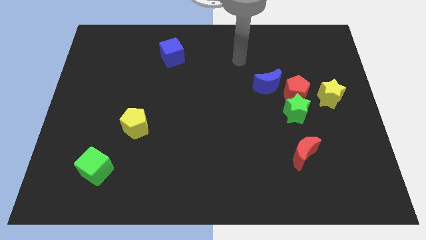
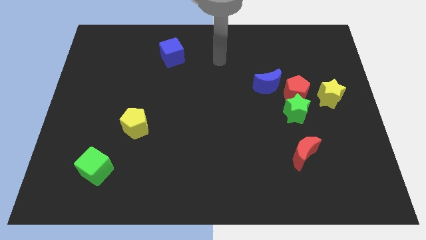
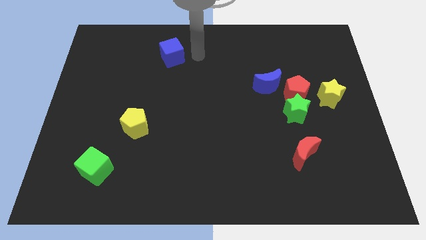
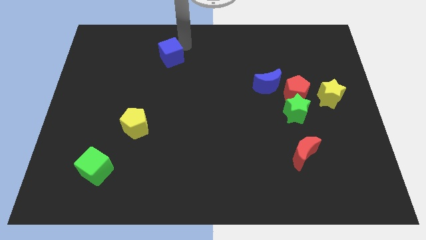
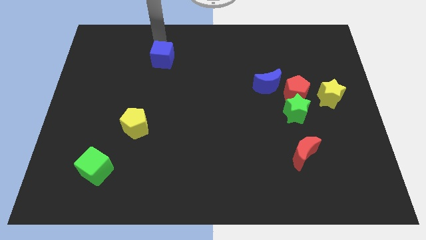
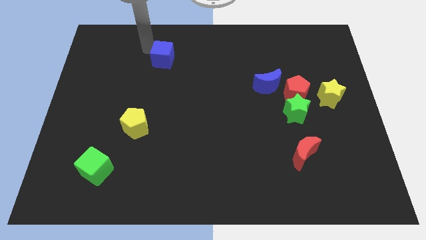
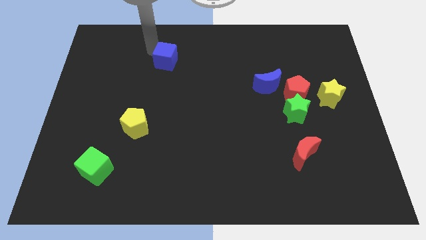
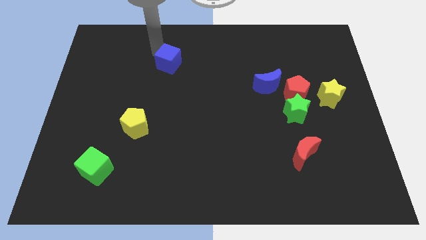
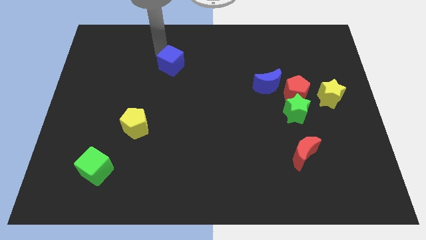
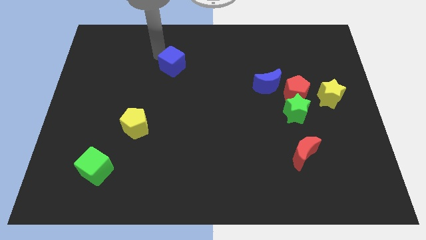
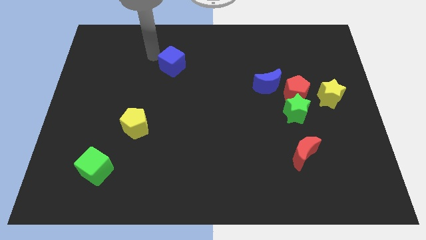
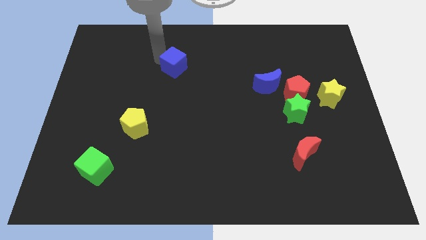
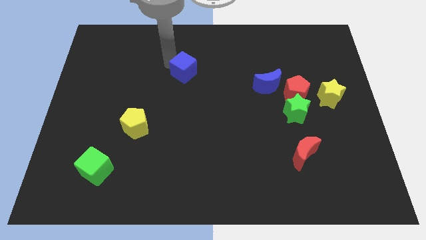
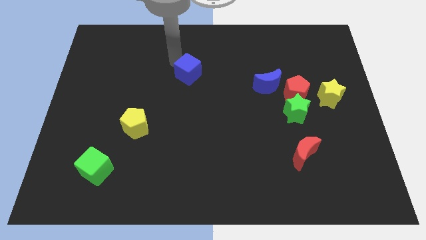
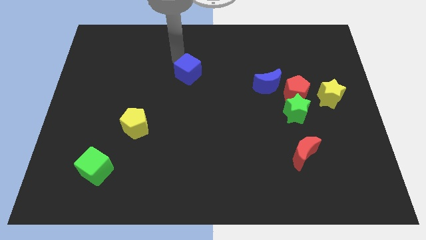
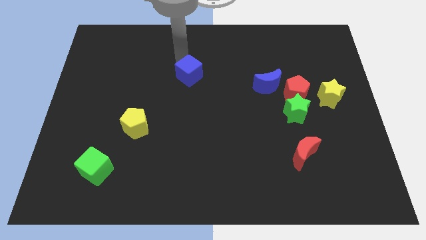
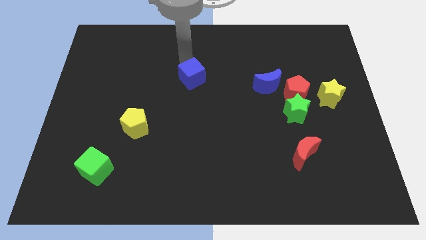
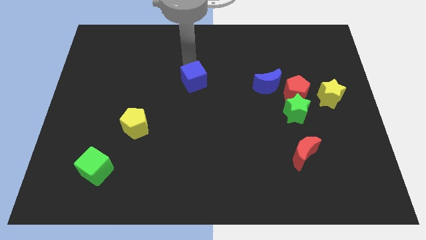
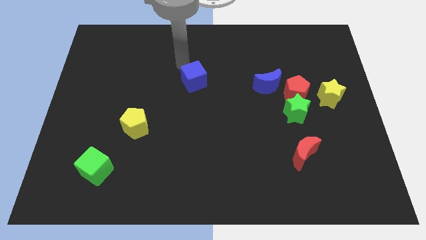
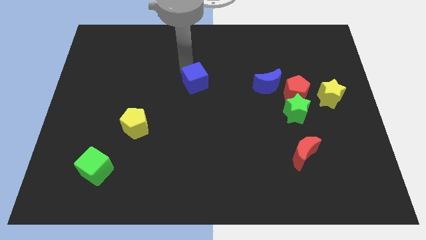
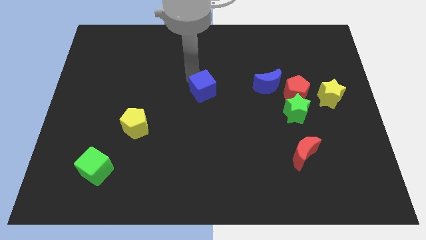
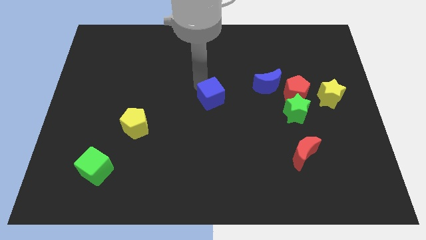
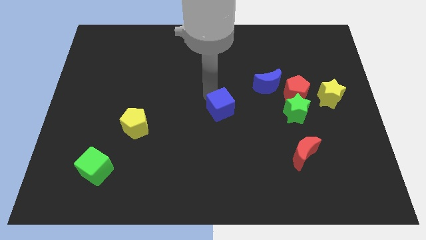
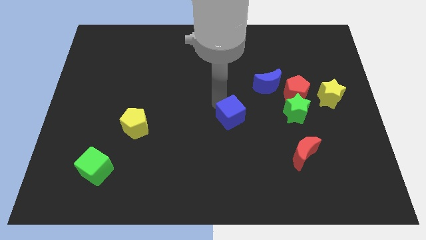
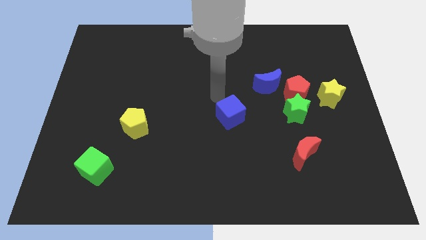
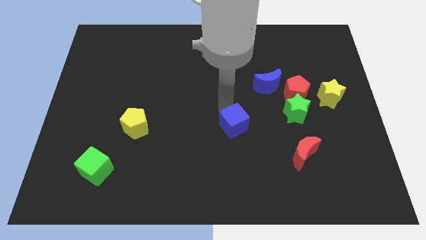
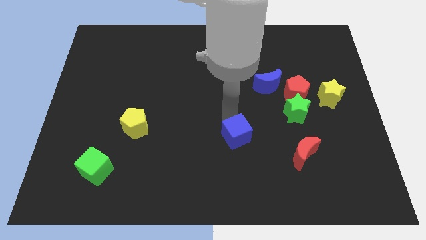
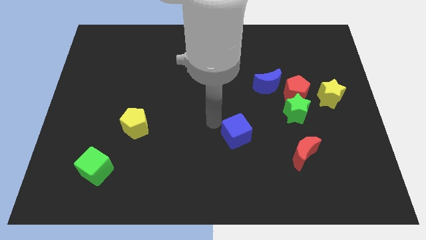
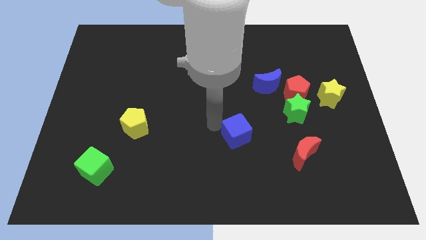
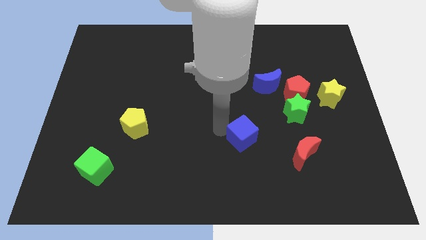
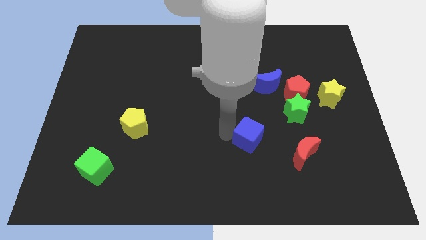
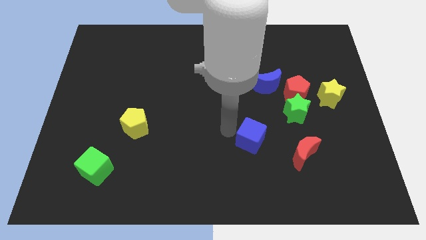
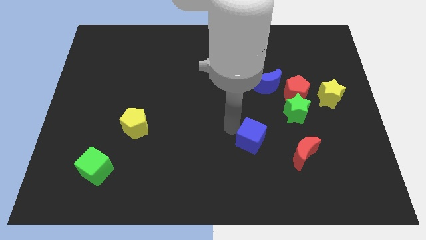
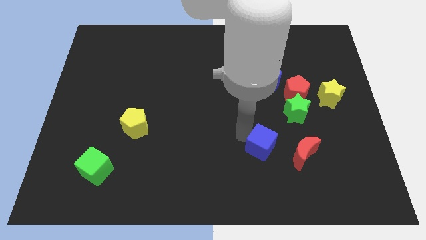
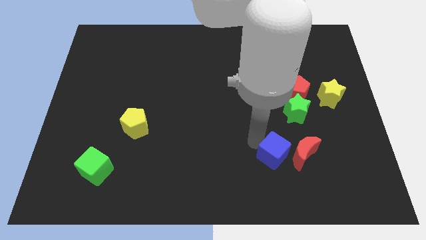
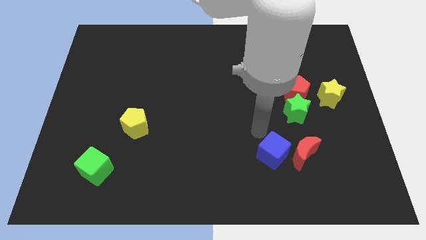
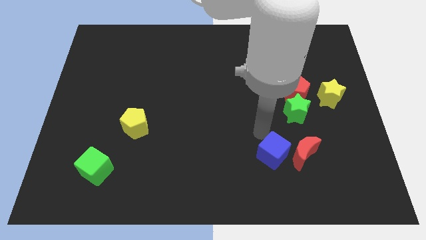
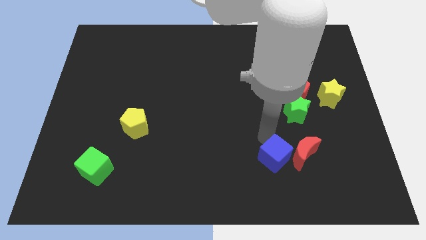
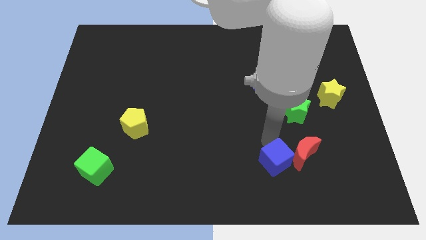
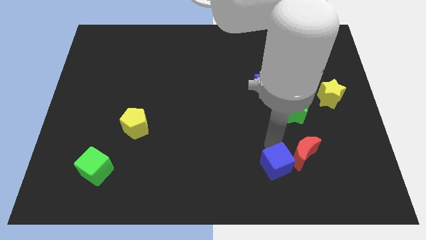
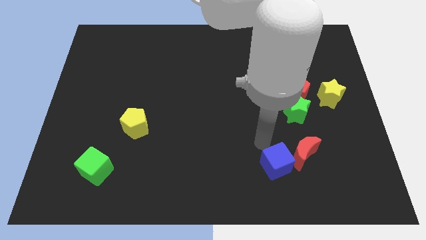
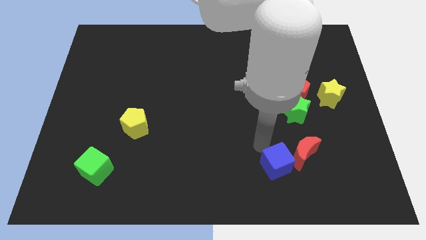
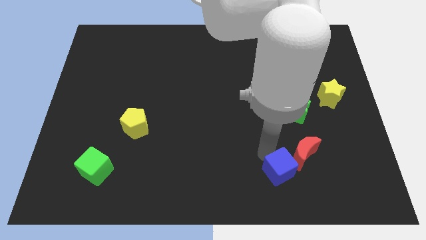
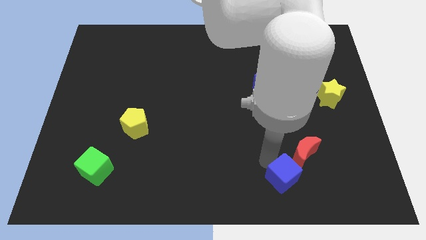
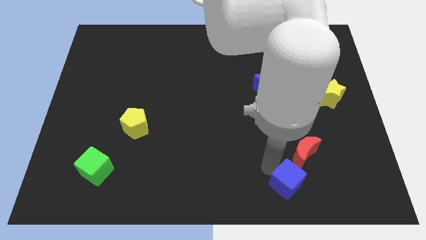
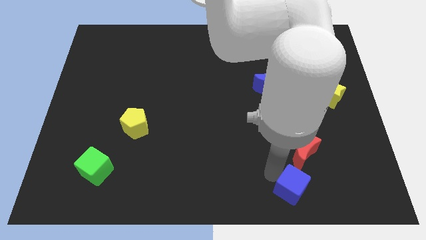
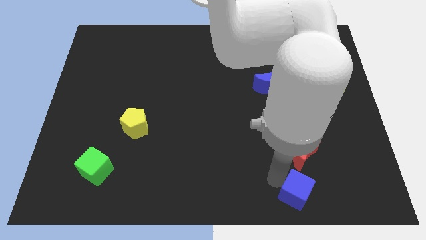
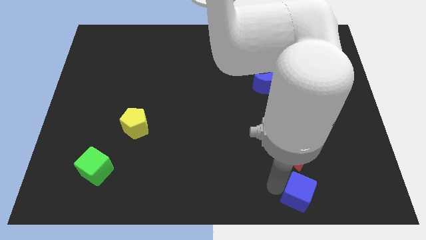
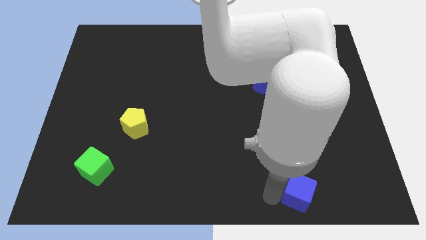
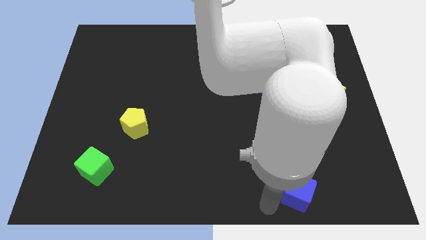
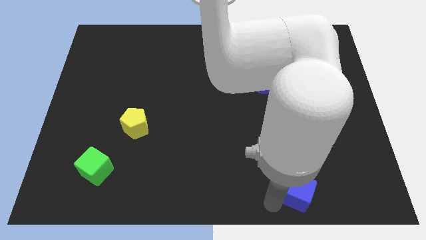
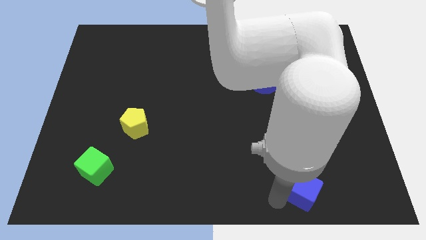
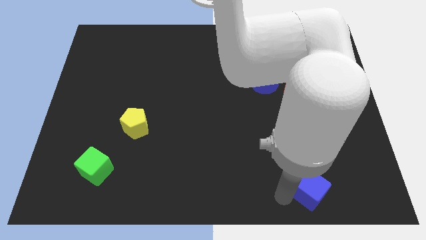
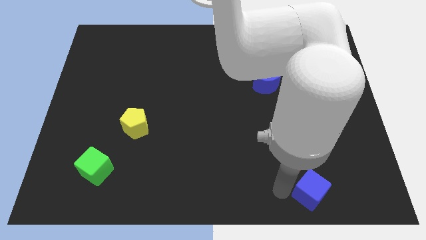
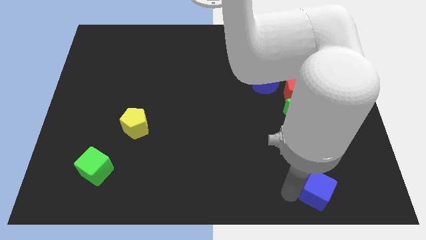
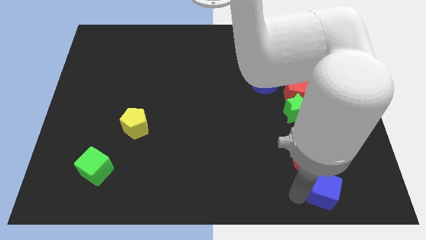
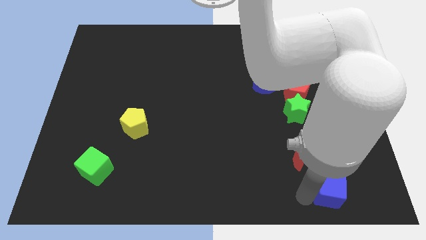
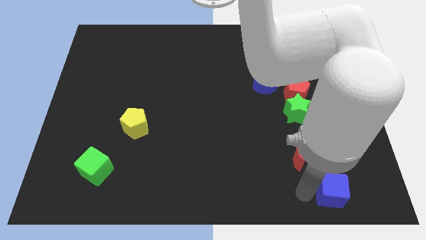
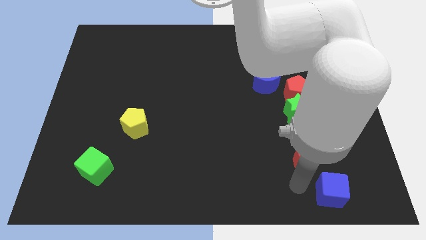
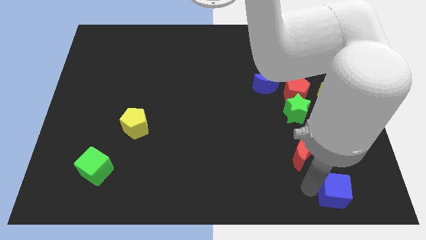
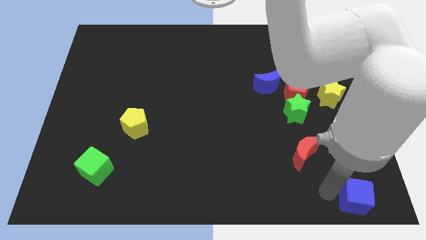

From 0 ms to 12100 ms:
put the blue cube to the bottom right of the board

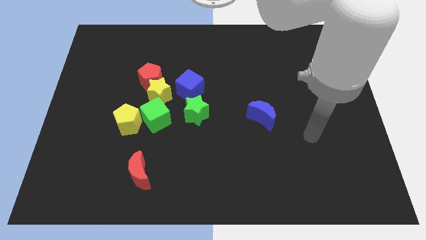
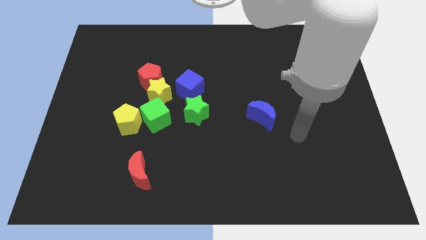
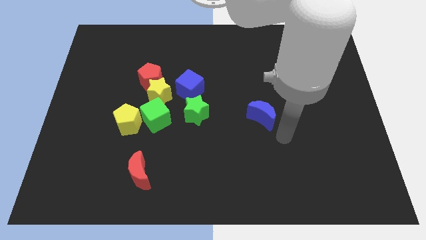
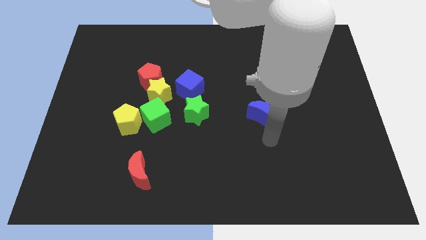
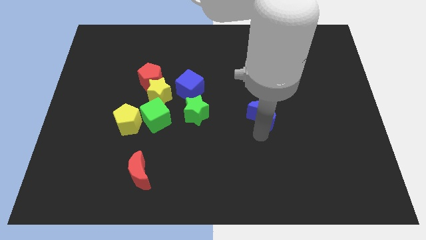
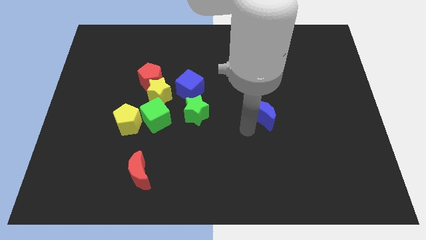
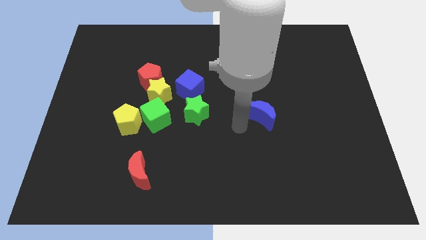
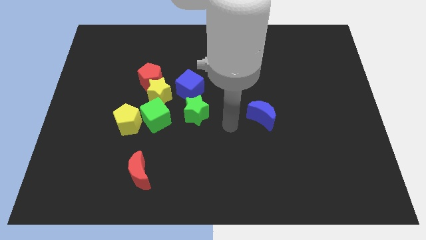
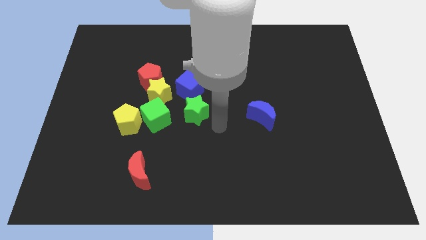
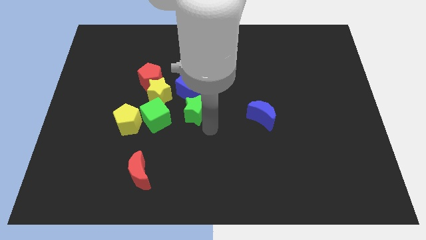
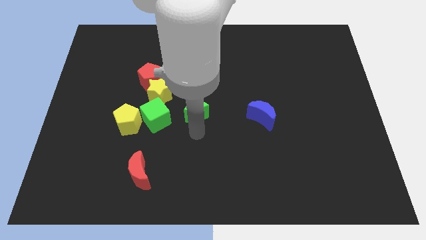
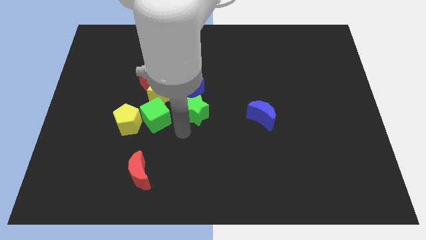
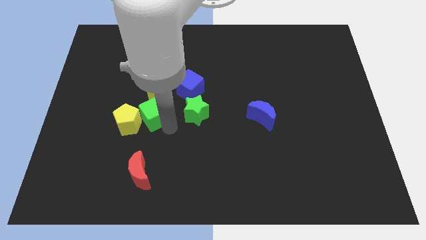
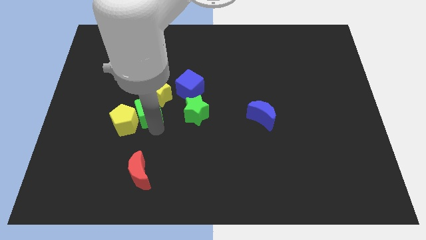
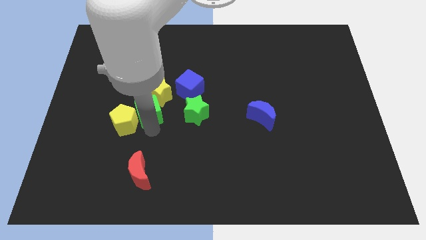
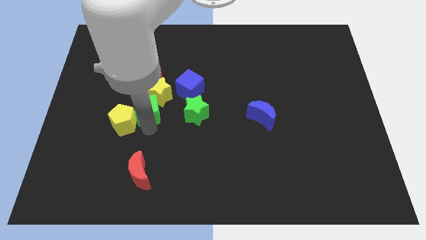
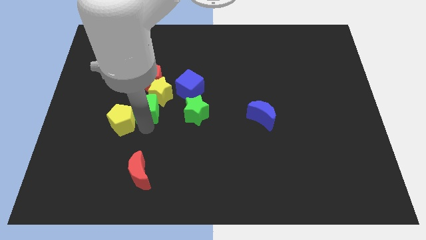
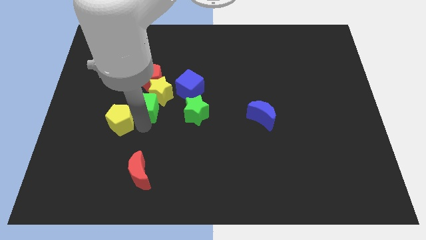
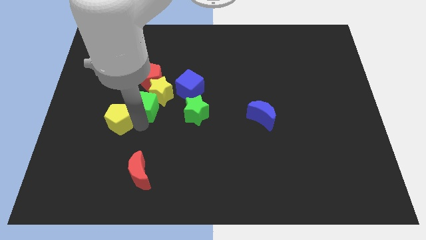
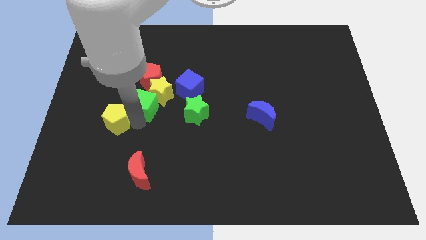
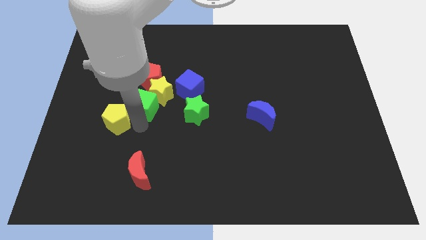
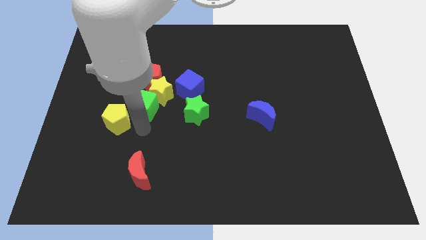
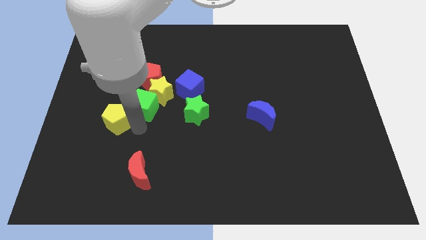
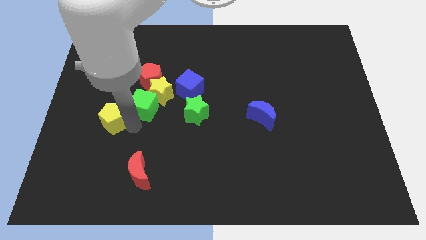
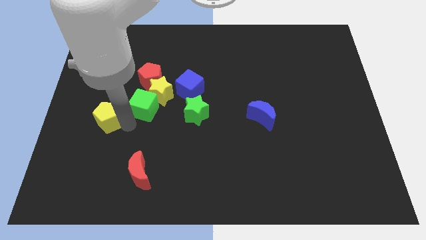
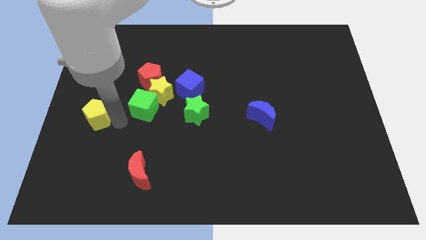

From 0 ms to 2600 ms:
slide the yellow pentagon to the left side of the board
